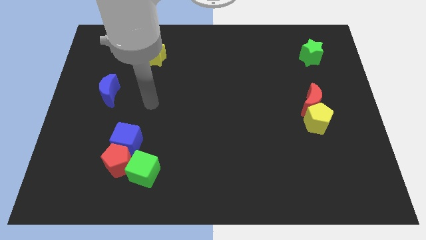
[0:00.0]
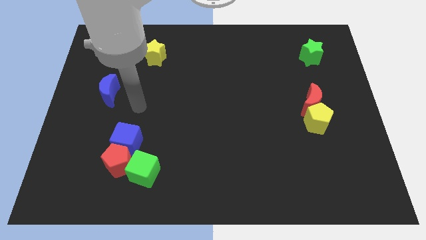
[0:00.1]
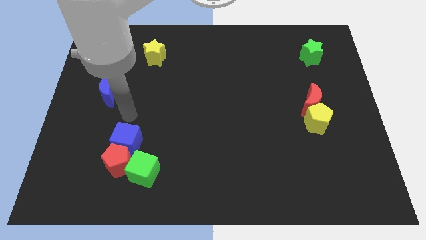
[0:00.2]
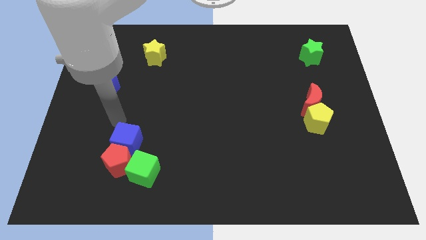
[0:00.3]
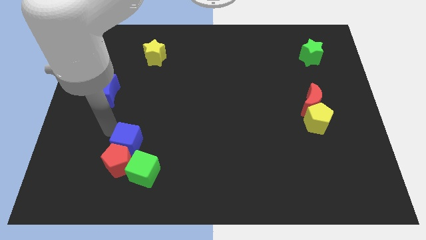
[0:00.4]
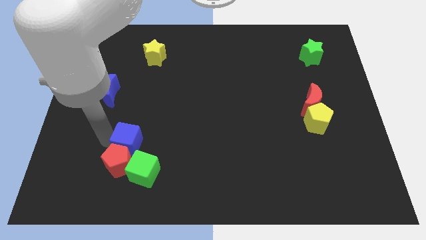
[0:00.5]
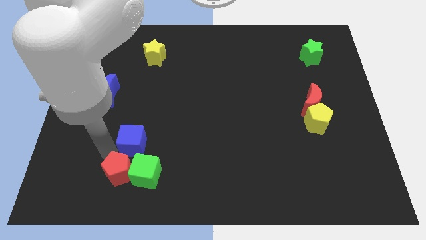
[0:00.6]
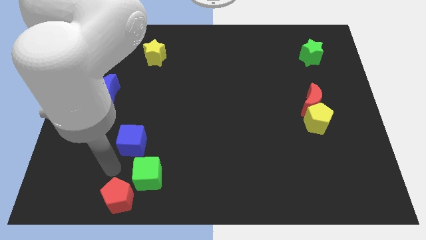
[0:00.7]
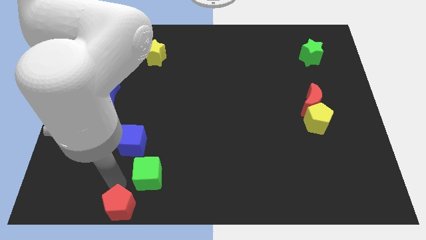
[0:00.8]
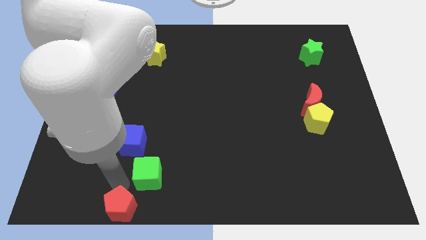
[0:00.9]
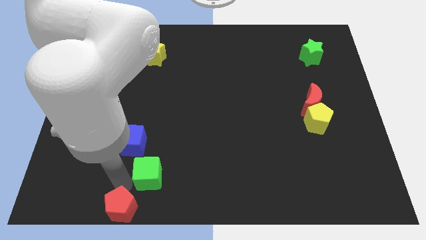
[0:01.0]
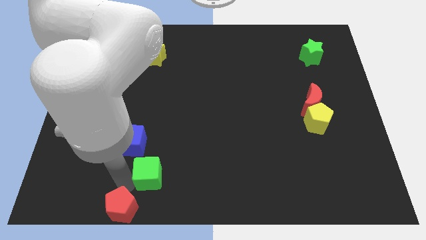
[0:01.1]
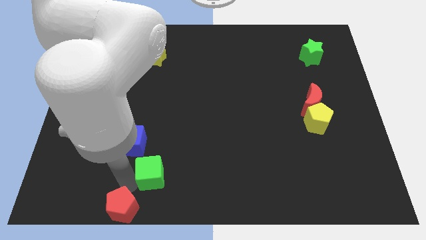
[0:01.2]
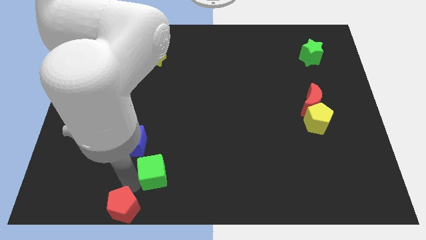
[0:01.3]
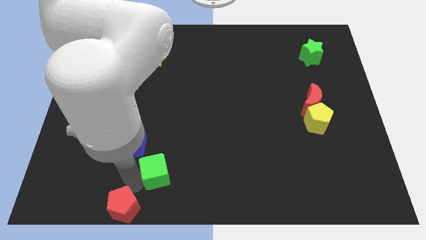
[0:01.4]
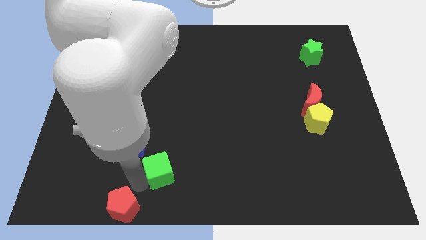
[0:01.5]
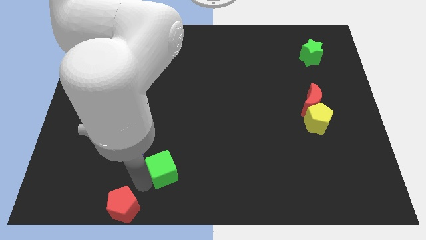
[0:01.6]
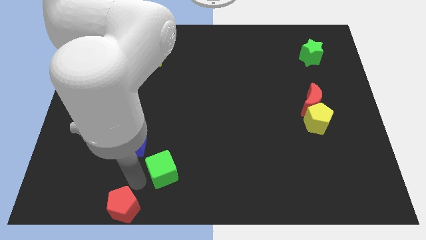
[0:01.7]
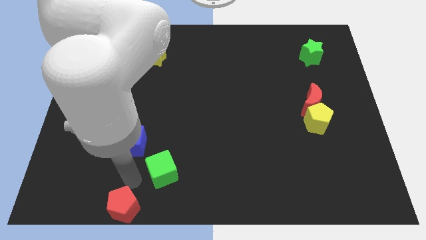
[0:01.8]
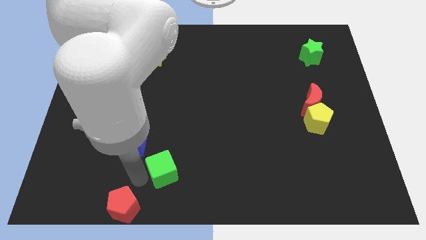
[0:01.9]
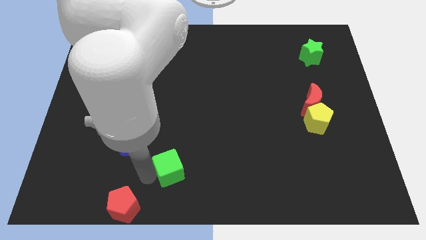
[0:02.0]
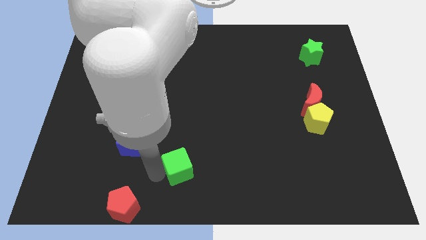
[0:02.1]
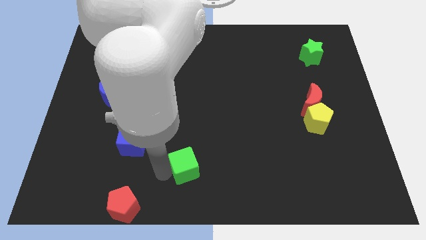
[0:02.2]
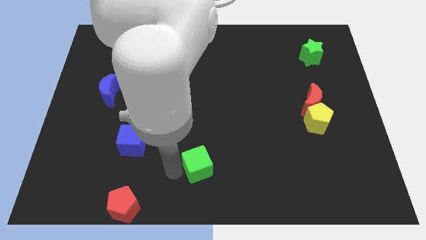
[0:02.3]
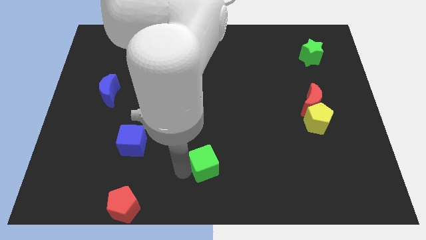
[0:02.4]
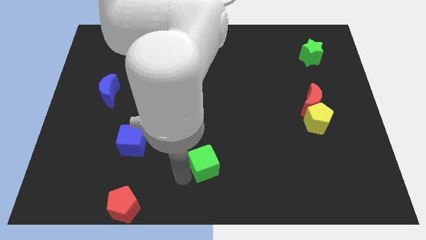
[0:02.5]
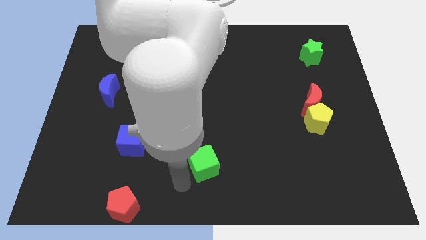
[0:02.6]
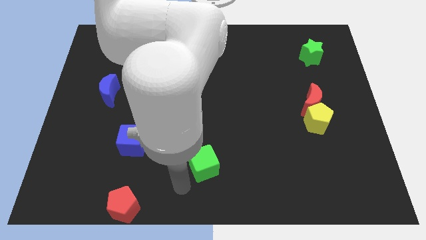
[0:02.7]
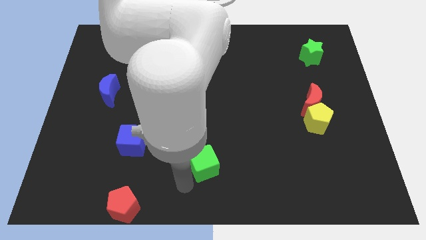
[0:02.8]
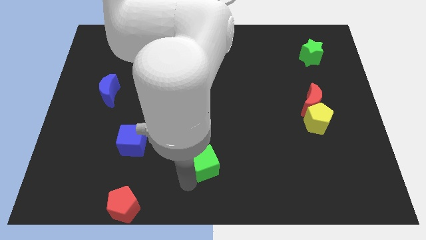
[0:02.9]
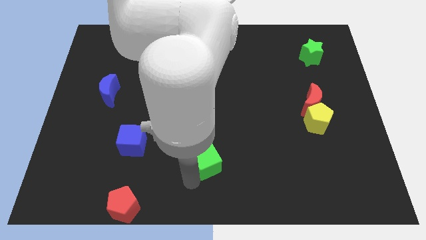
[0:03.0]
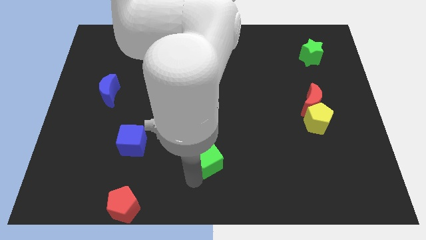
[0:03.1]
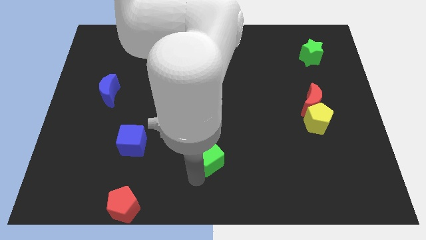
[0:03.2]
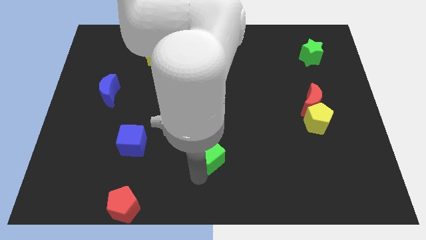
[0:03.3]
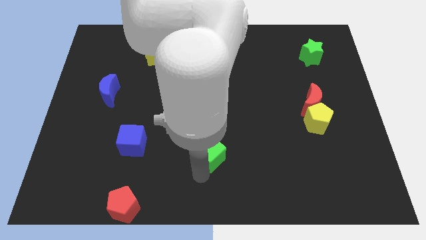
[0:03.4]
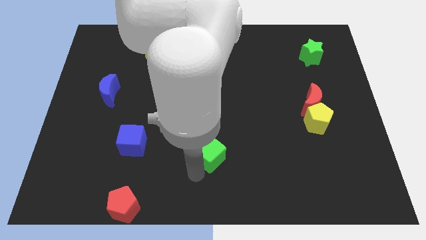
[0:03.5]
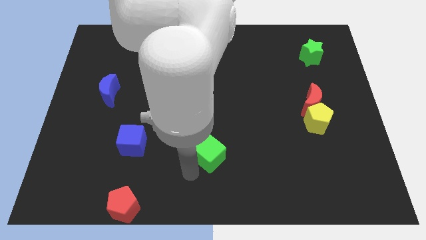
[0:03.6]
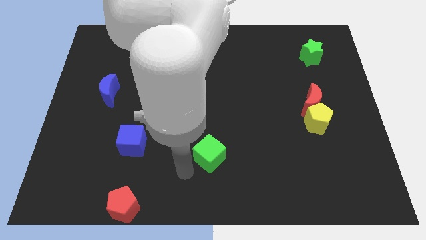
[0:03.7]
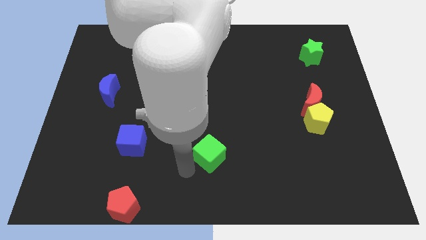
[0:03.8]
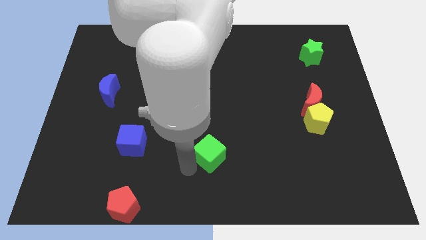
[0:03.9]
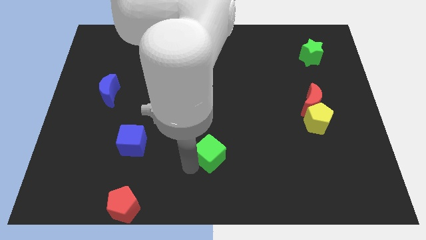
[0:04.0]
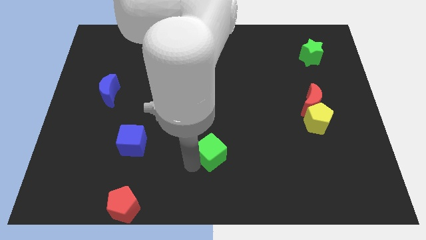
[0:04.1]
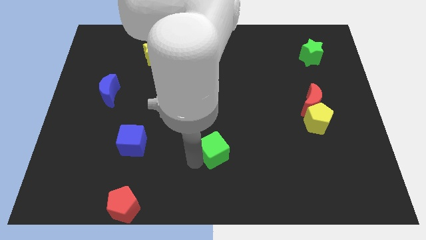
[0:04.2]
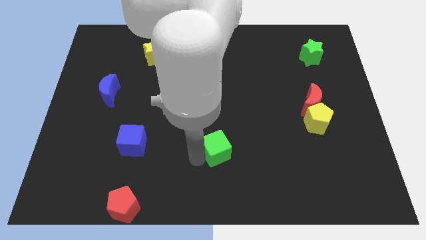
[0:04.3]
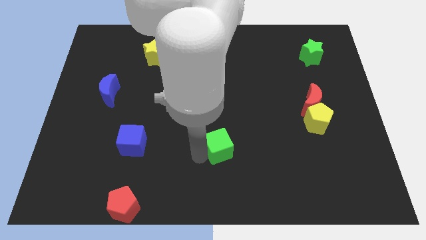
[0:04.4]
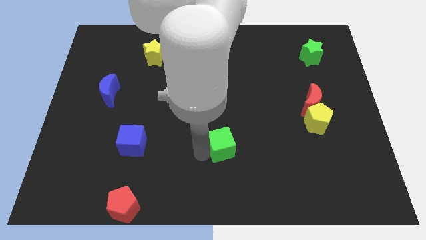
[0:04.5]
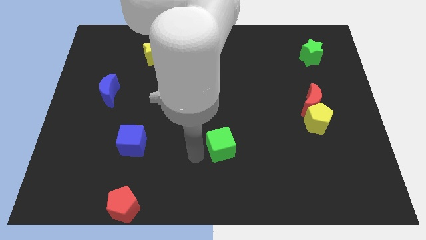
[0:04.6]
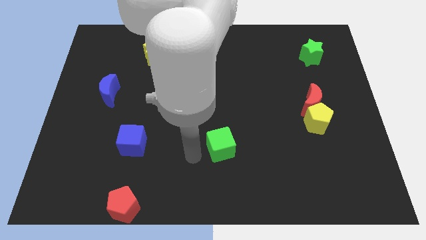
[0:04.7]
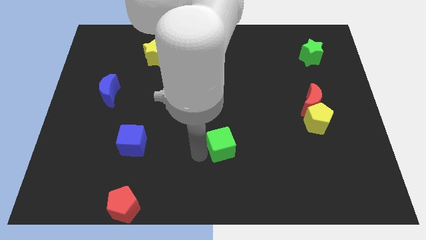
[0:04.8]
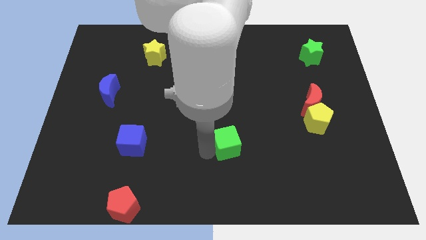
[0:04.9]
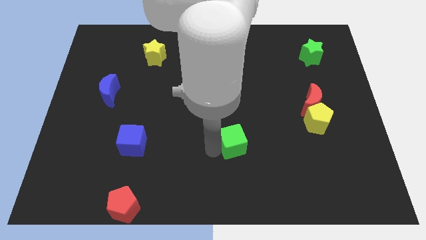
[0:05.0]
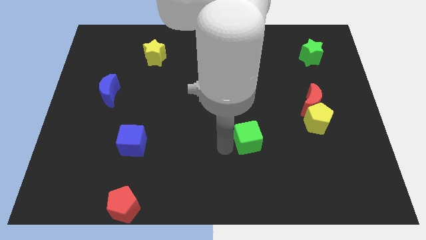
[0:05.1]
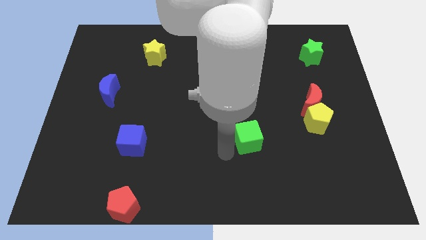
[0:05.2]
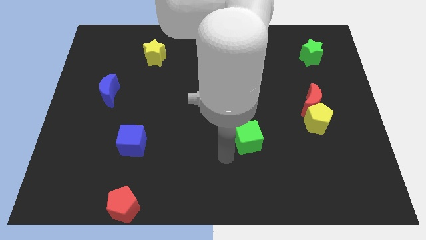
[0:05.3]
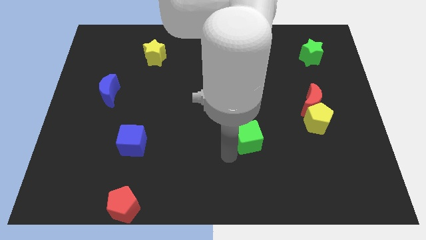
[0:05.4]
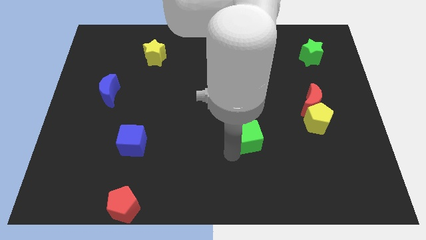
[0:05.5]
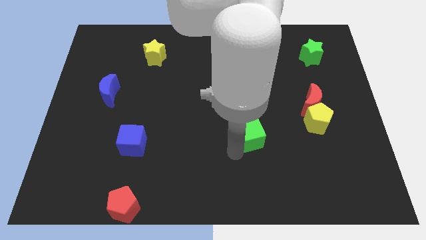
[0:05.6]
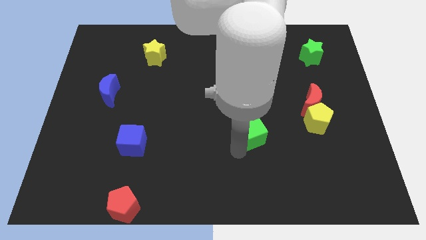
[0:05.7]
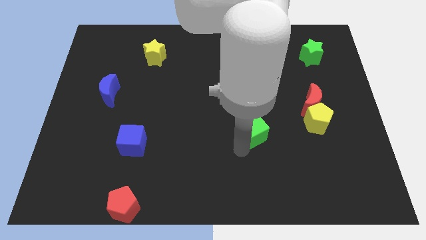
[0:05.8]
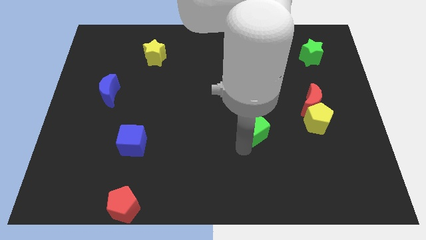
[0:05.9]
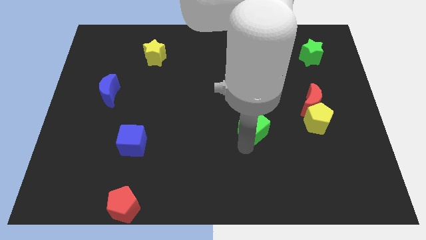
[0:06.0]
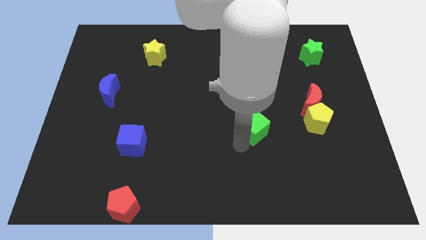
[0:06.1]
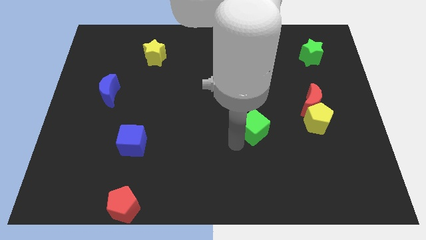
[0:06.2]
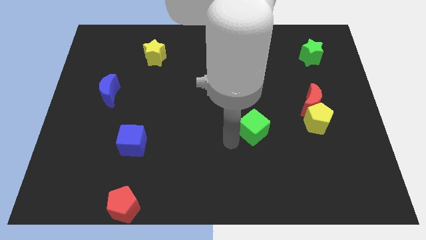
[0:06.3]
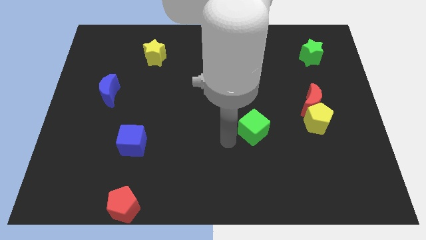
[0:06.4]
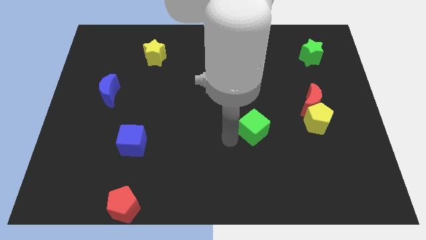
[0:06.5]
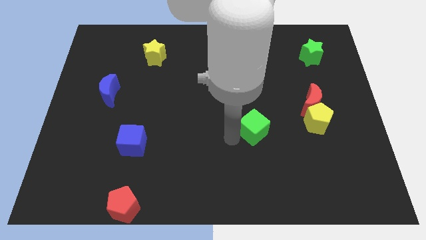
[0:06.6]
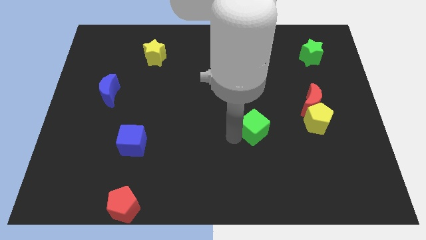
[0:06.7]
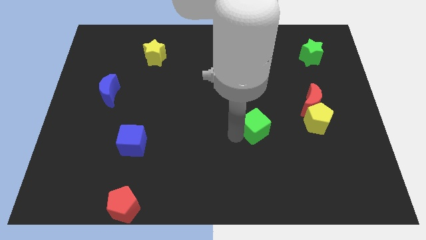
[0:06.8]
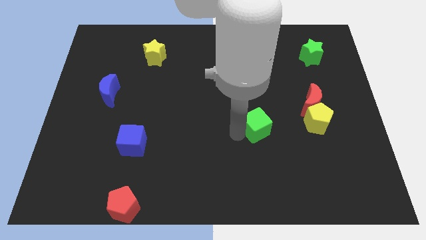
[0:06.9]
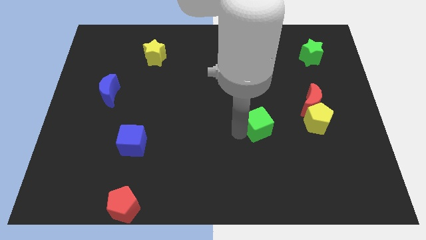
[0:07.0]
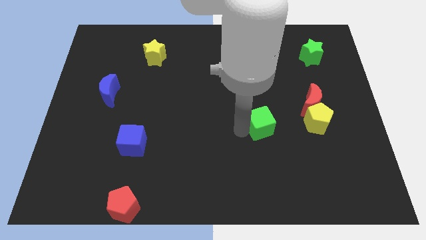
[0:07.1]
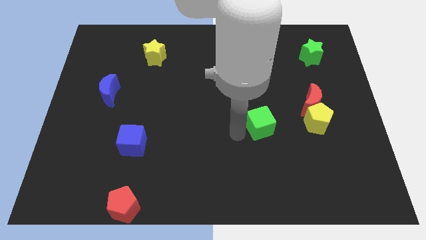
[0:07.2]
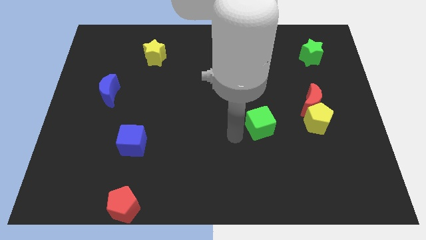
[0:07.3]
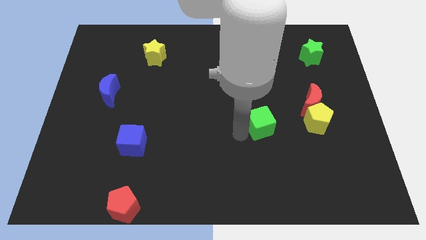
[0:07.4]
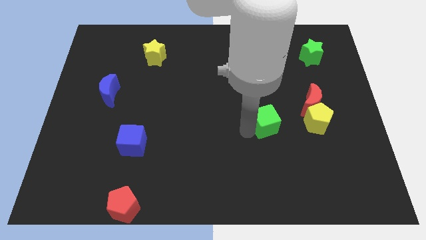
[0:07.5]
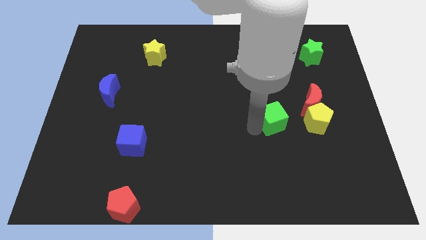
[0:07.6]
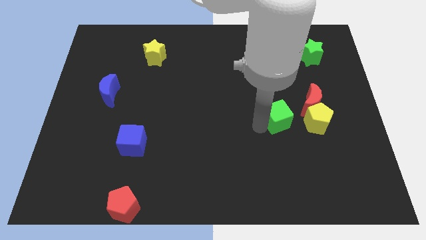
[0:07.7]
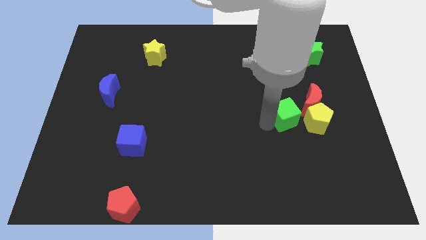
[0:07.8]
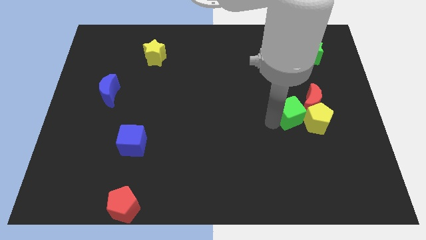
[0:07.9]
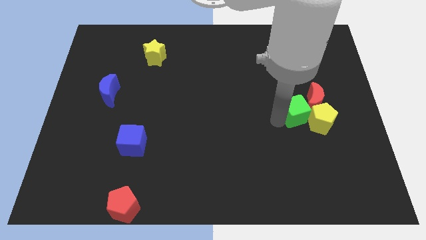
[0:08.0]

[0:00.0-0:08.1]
move the green cube close to the red moon

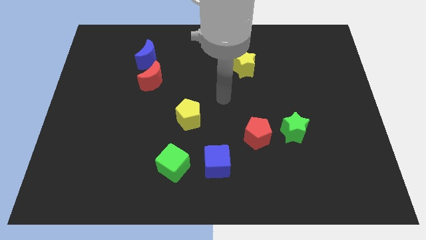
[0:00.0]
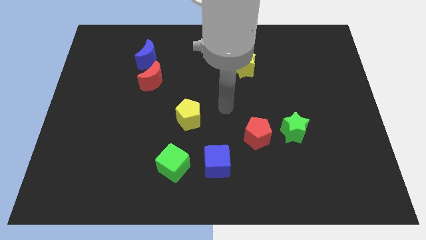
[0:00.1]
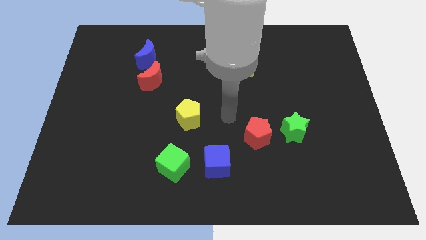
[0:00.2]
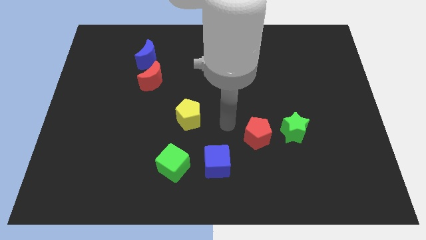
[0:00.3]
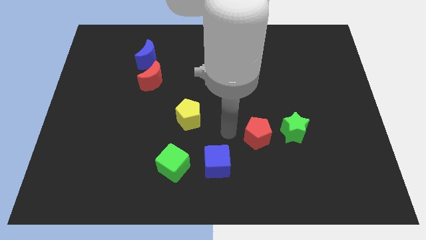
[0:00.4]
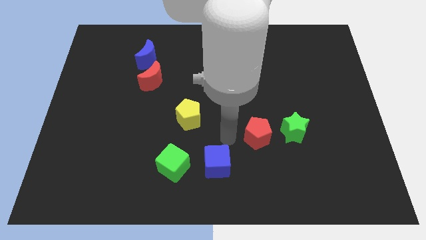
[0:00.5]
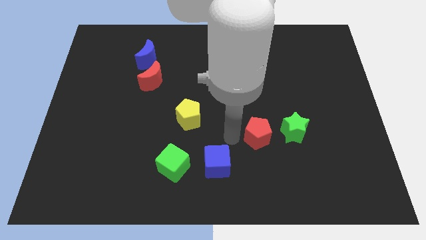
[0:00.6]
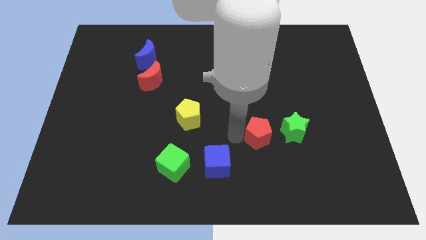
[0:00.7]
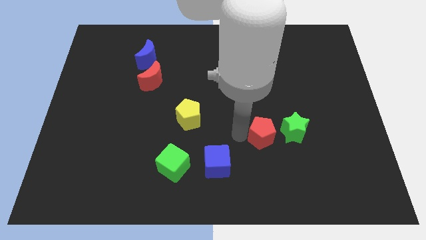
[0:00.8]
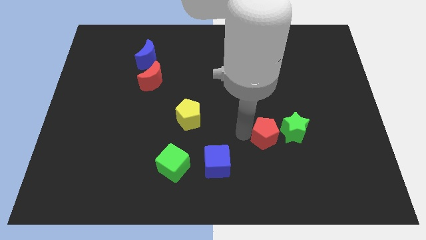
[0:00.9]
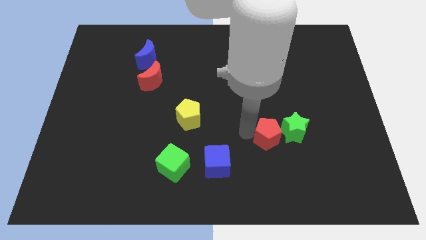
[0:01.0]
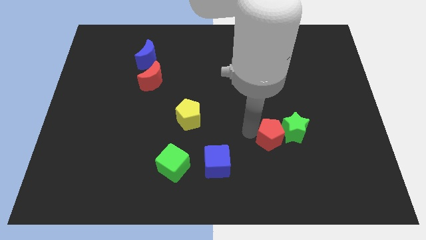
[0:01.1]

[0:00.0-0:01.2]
put the red pentagon towards the green star
